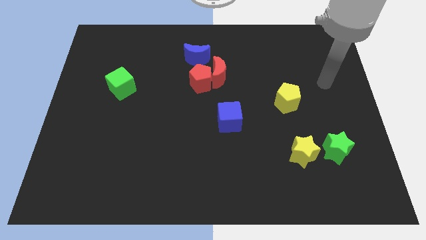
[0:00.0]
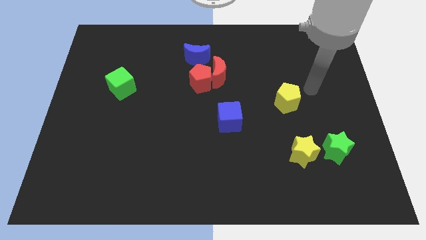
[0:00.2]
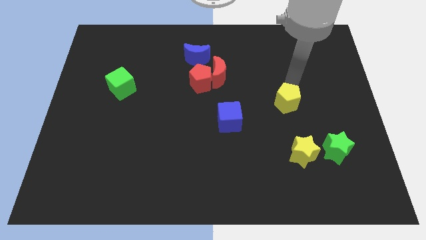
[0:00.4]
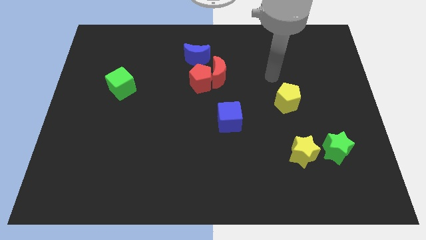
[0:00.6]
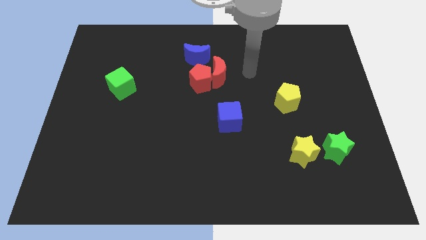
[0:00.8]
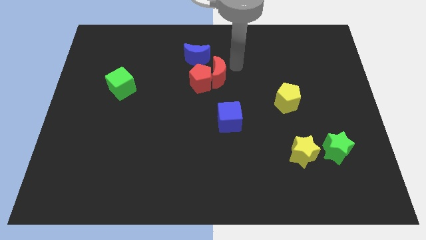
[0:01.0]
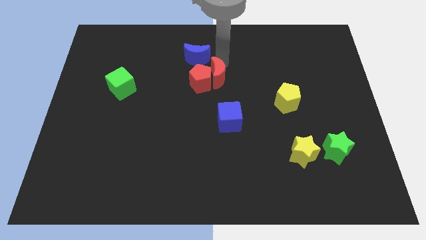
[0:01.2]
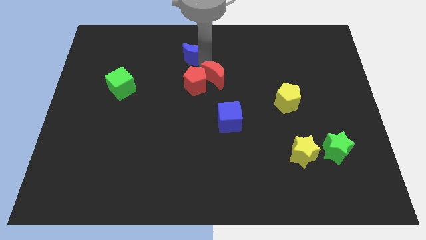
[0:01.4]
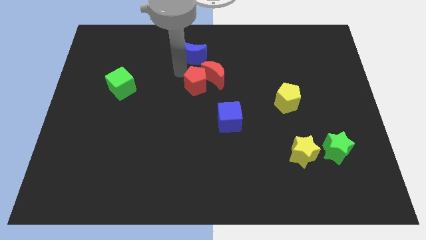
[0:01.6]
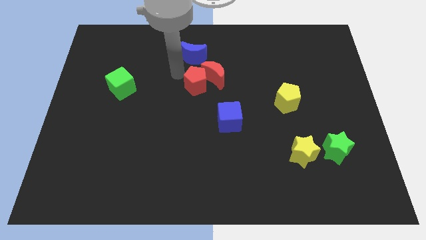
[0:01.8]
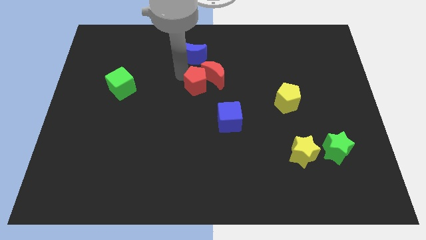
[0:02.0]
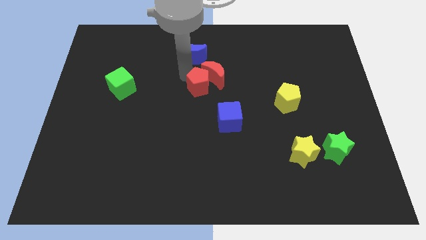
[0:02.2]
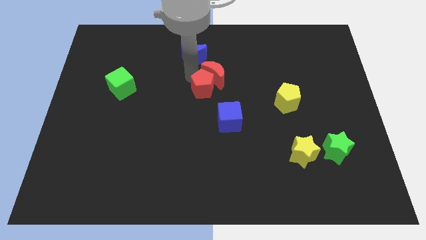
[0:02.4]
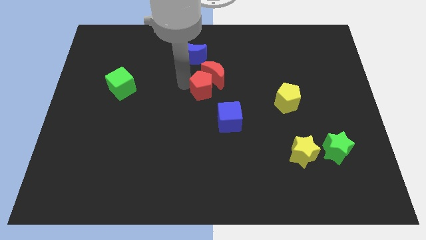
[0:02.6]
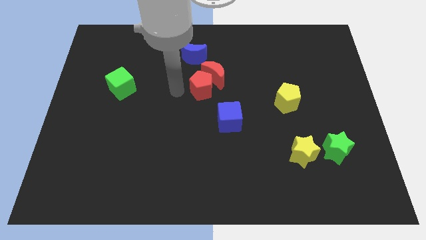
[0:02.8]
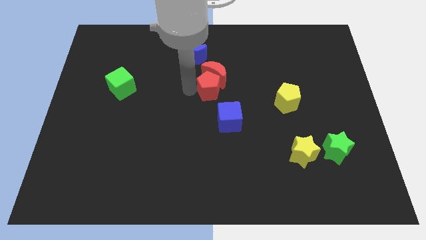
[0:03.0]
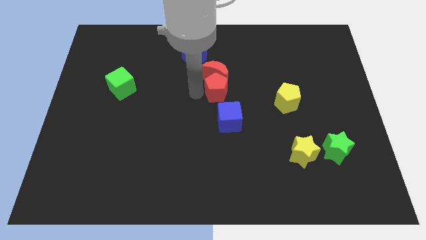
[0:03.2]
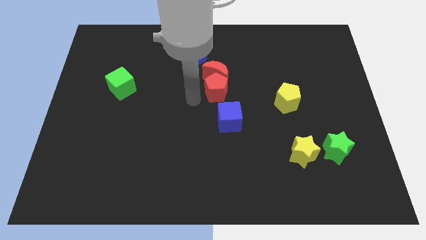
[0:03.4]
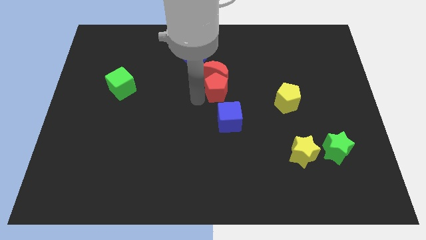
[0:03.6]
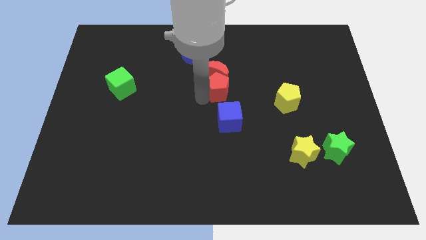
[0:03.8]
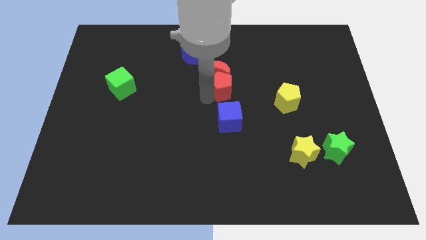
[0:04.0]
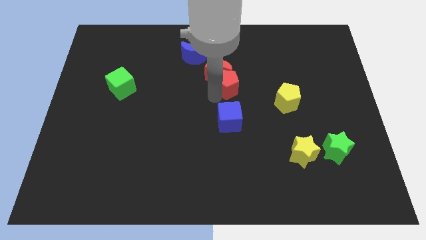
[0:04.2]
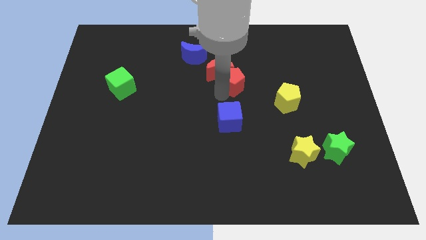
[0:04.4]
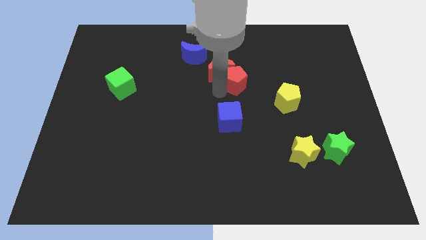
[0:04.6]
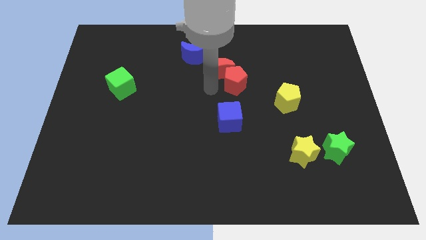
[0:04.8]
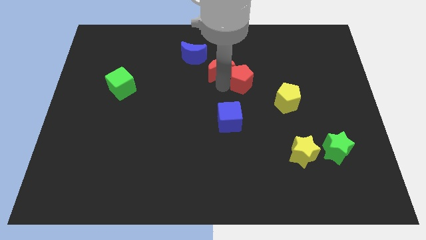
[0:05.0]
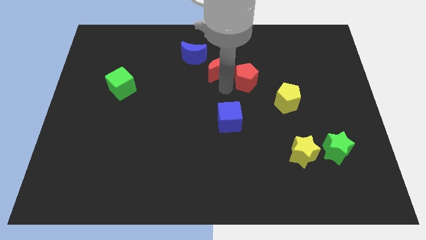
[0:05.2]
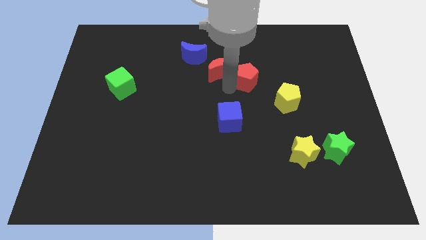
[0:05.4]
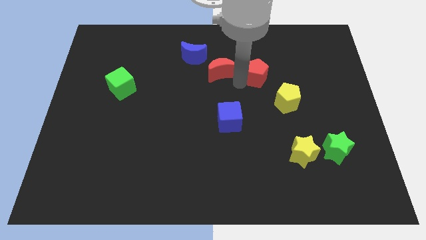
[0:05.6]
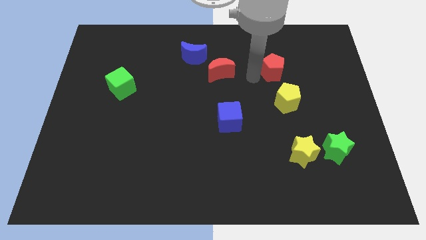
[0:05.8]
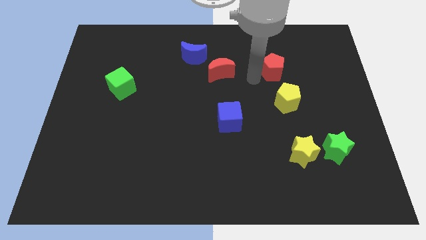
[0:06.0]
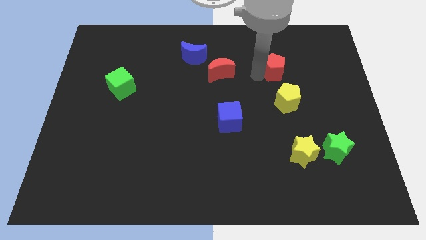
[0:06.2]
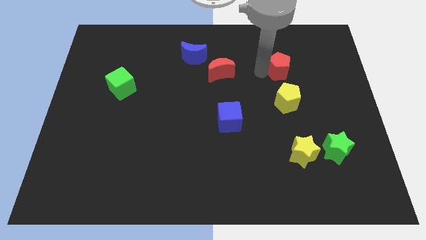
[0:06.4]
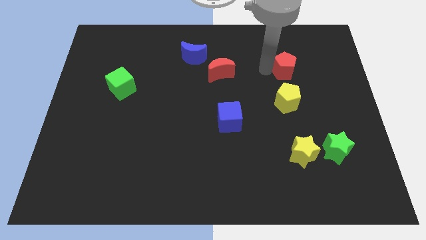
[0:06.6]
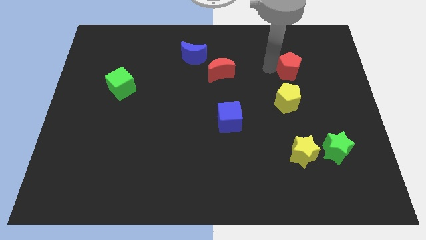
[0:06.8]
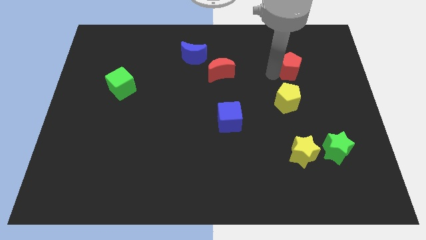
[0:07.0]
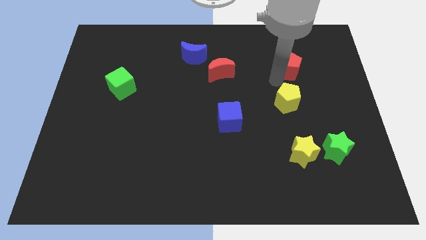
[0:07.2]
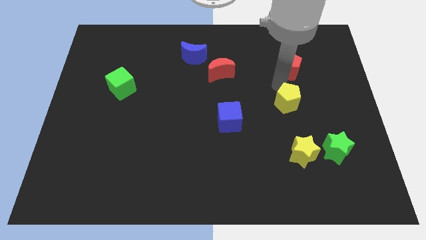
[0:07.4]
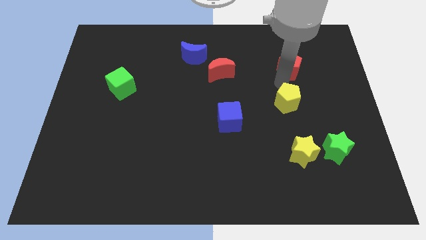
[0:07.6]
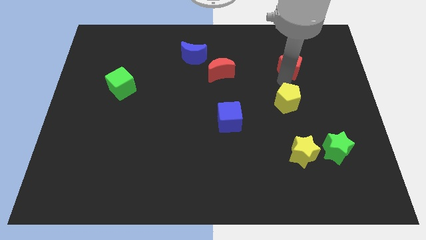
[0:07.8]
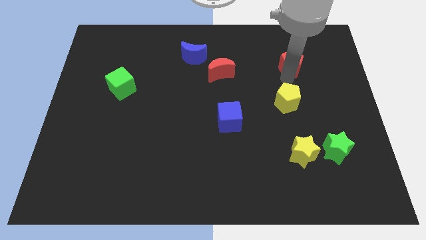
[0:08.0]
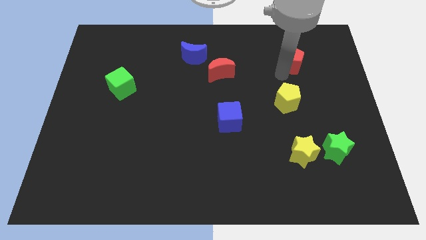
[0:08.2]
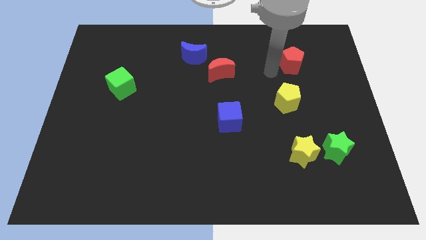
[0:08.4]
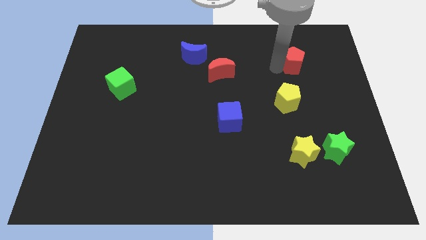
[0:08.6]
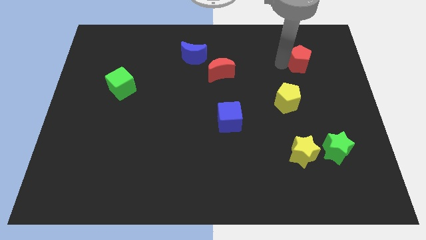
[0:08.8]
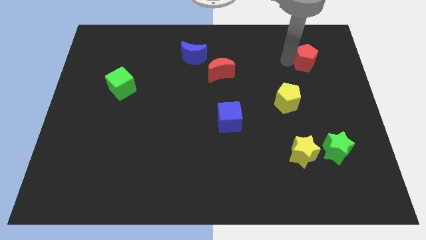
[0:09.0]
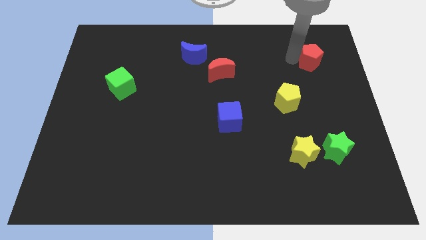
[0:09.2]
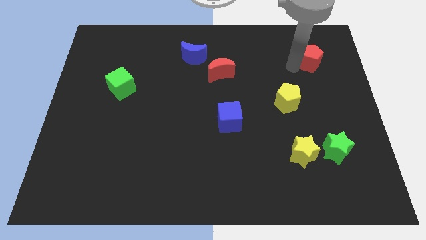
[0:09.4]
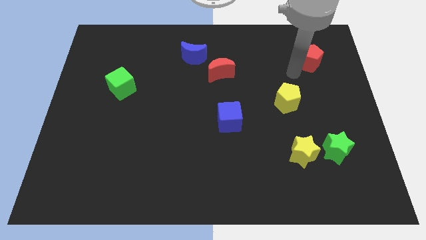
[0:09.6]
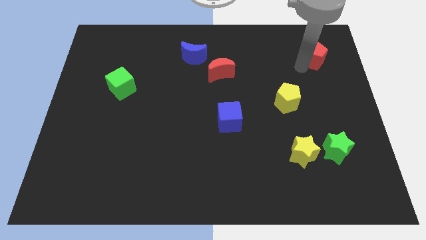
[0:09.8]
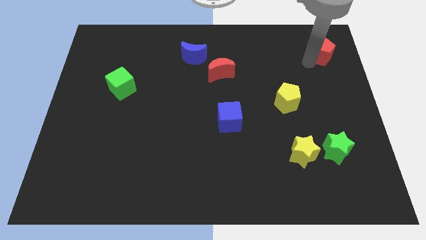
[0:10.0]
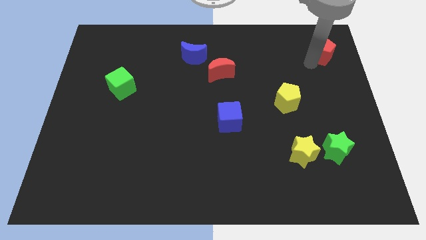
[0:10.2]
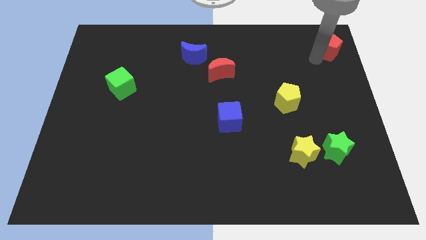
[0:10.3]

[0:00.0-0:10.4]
move the red pentagon to the top right

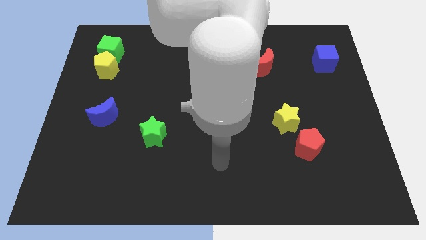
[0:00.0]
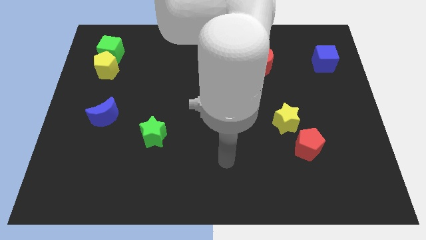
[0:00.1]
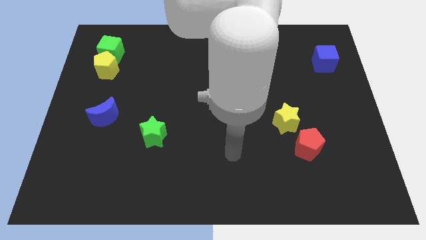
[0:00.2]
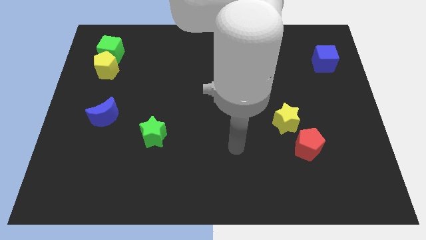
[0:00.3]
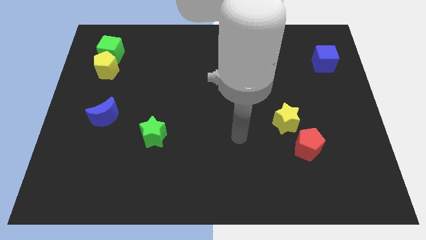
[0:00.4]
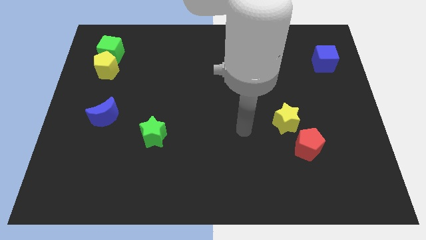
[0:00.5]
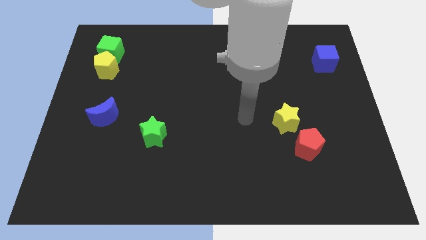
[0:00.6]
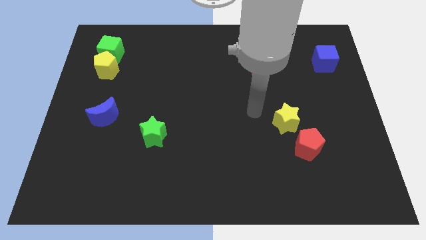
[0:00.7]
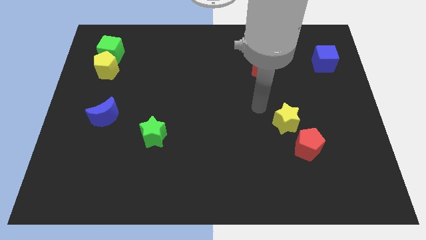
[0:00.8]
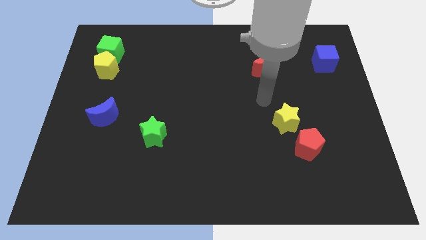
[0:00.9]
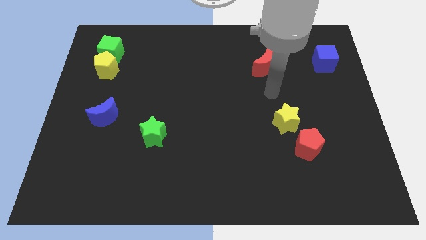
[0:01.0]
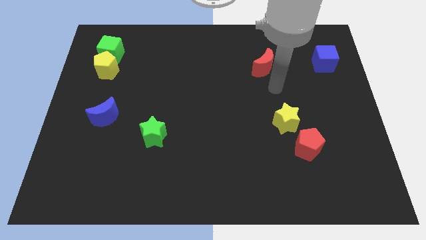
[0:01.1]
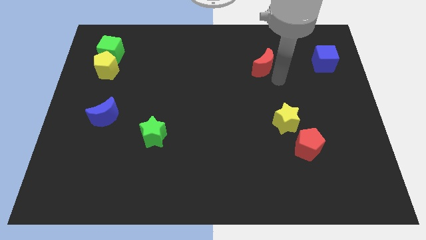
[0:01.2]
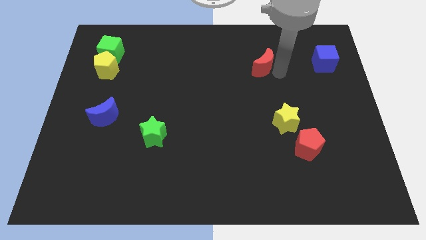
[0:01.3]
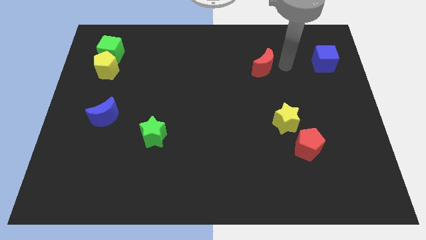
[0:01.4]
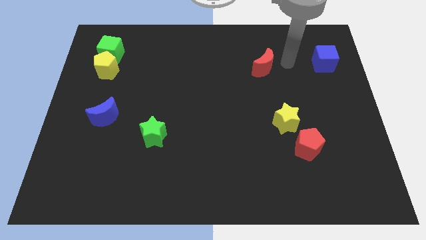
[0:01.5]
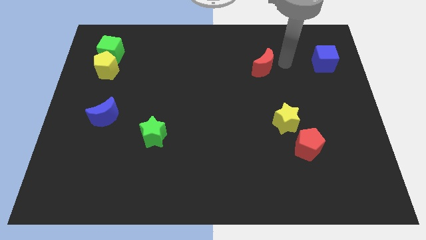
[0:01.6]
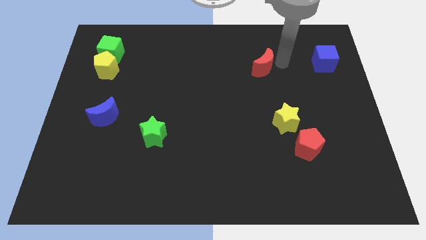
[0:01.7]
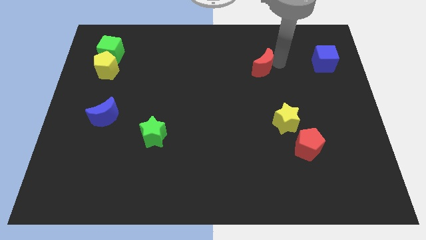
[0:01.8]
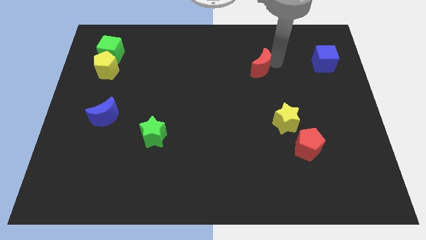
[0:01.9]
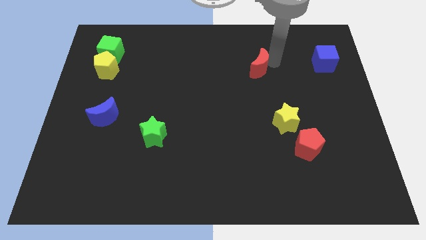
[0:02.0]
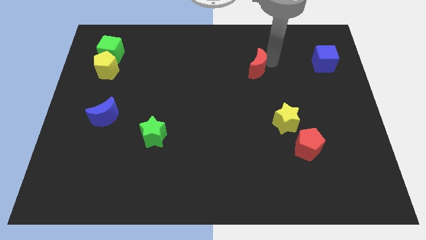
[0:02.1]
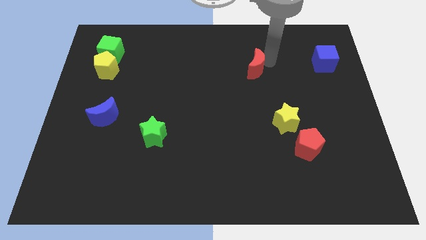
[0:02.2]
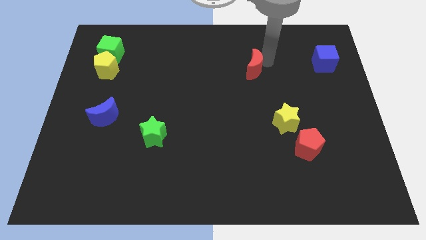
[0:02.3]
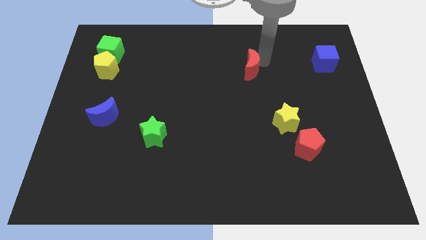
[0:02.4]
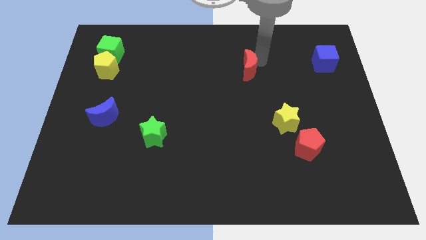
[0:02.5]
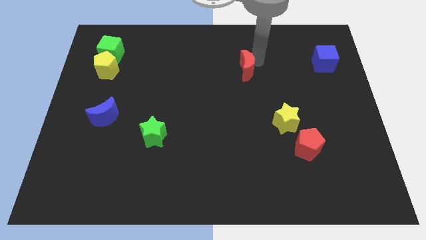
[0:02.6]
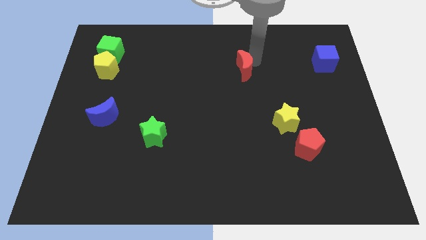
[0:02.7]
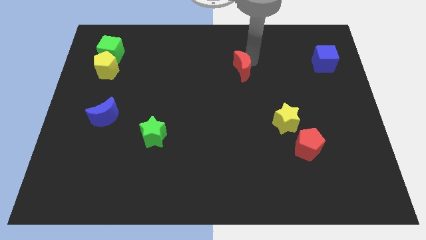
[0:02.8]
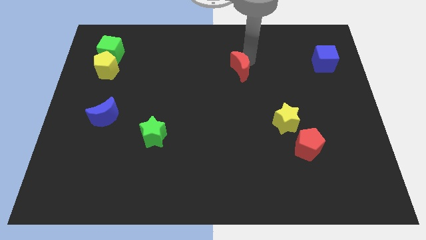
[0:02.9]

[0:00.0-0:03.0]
push the red moon to the middle of the board
